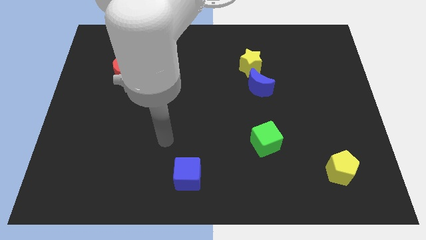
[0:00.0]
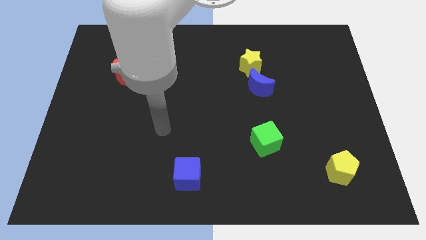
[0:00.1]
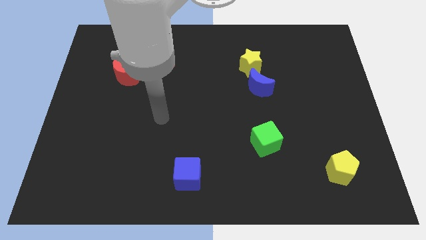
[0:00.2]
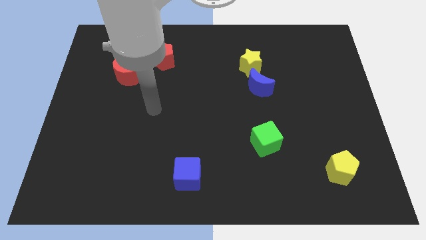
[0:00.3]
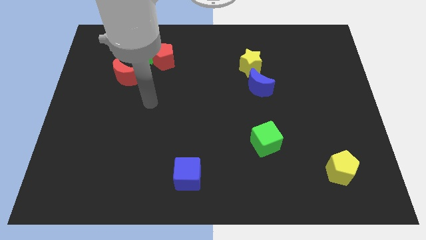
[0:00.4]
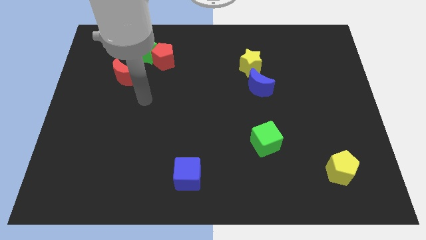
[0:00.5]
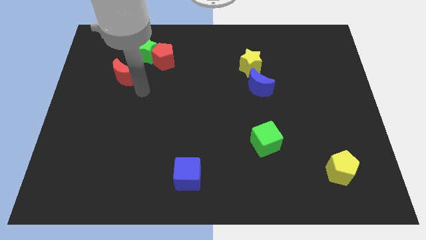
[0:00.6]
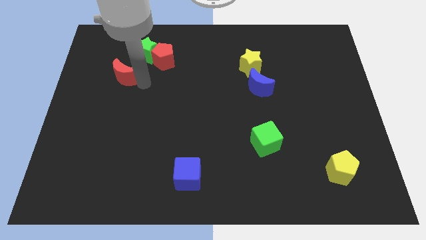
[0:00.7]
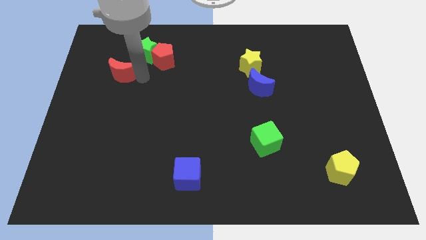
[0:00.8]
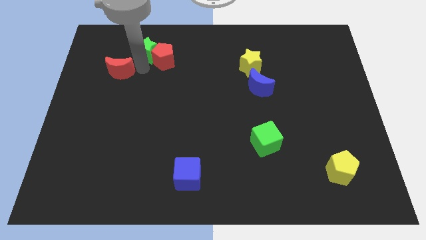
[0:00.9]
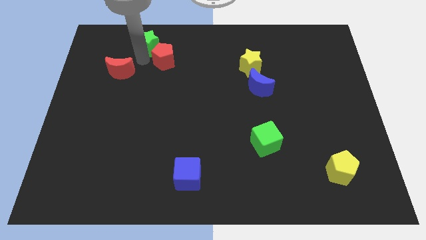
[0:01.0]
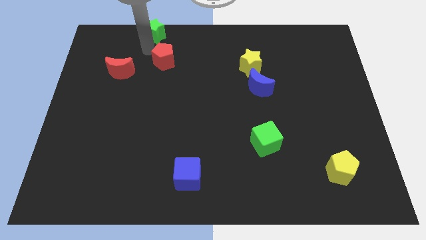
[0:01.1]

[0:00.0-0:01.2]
separate the red pentagon from the green star

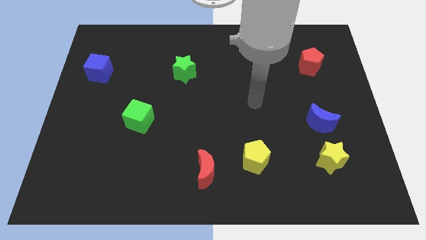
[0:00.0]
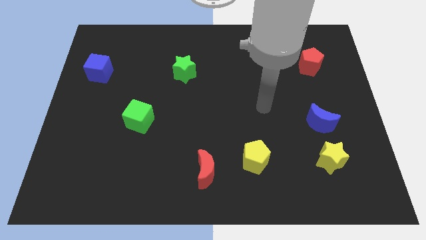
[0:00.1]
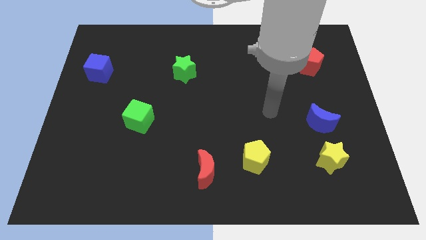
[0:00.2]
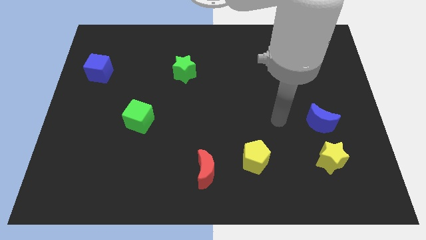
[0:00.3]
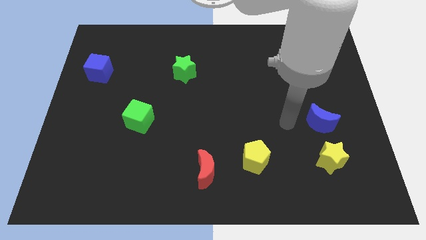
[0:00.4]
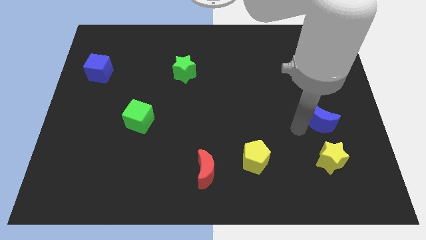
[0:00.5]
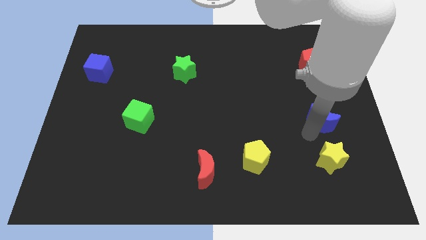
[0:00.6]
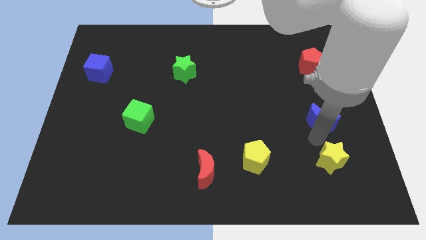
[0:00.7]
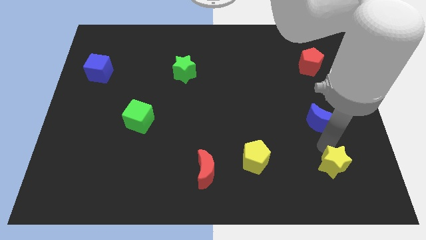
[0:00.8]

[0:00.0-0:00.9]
separate the blue moon from the yellow star

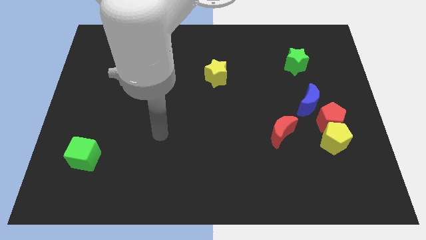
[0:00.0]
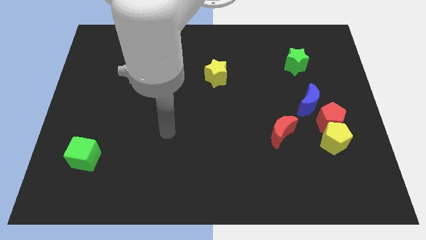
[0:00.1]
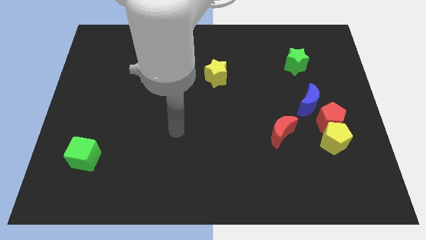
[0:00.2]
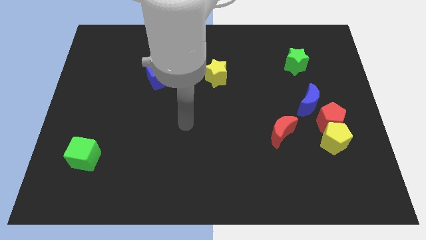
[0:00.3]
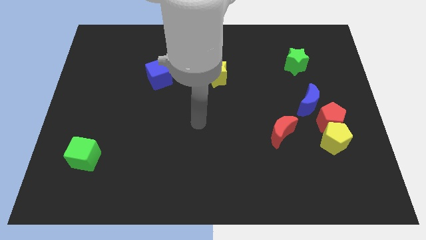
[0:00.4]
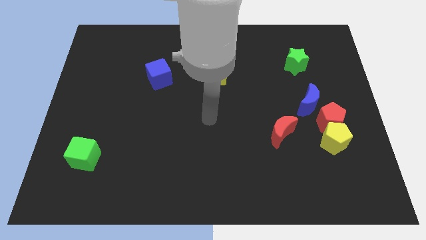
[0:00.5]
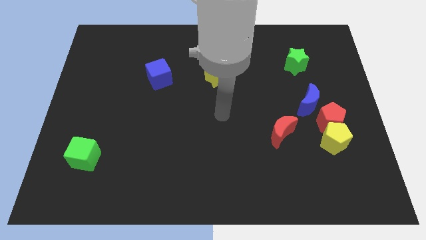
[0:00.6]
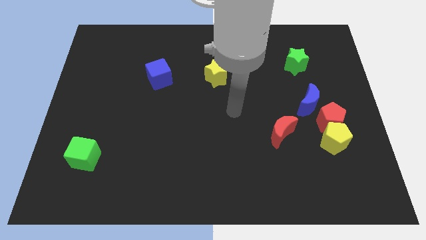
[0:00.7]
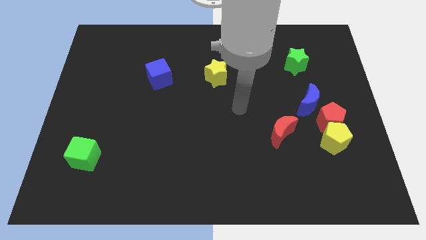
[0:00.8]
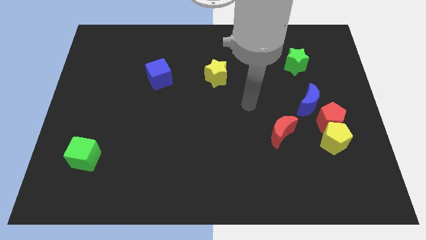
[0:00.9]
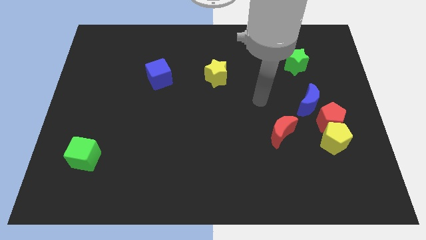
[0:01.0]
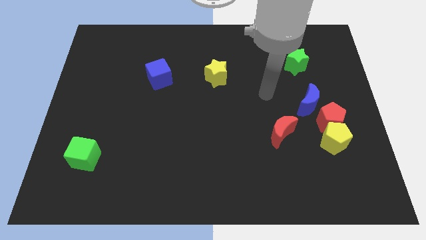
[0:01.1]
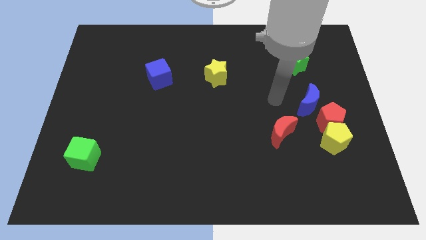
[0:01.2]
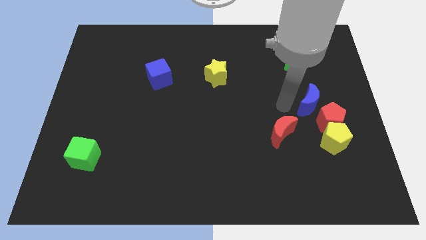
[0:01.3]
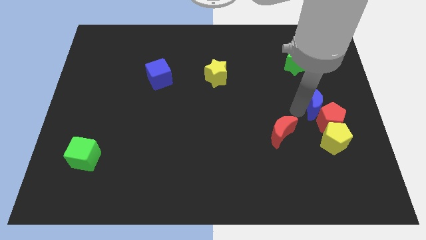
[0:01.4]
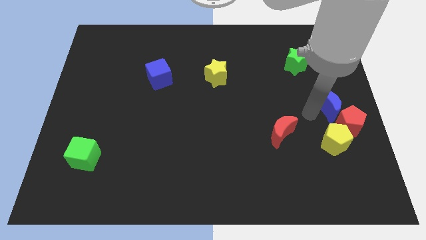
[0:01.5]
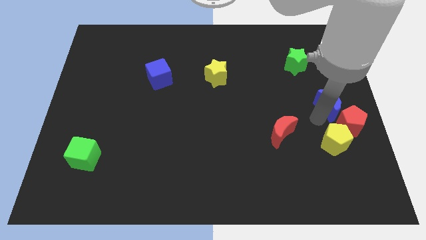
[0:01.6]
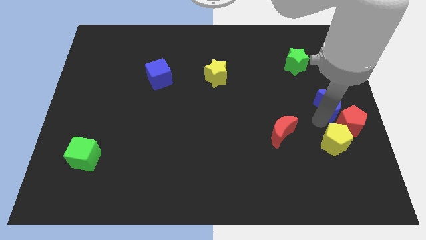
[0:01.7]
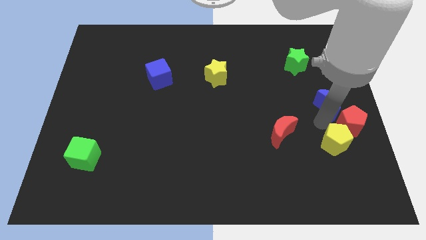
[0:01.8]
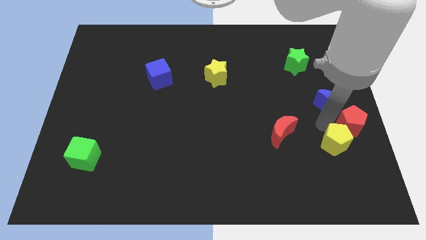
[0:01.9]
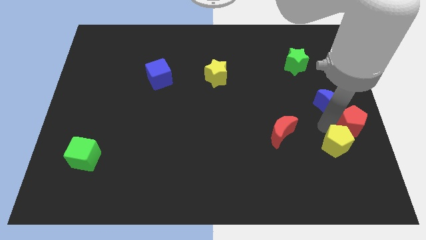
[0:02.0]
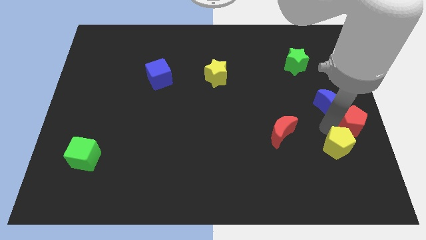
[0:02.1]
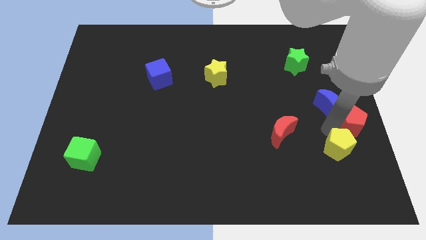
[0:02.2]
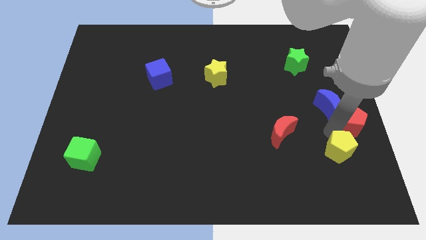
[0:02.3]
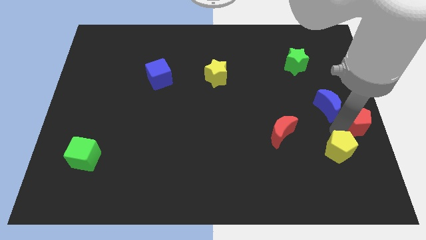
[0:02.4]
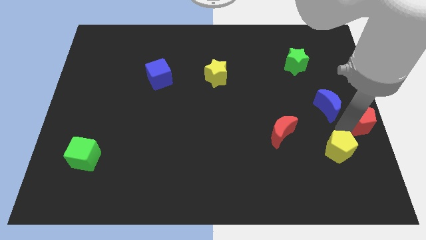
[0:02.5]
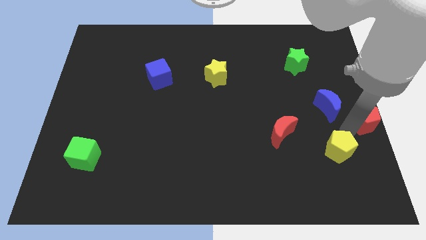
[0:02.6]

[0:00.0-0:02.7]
move the yellow pentagon away from the red pentagon

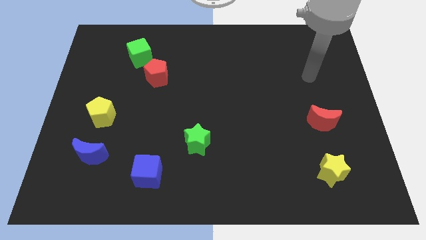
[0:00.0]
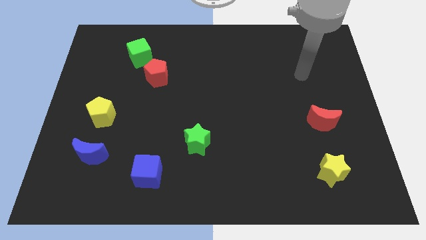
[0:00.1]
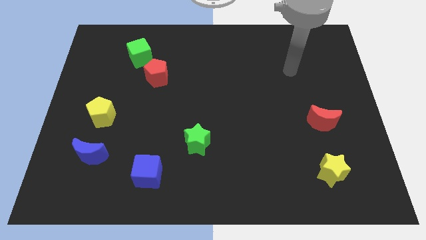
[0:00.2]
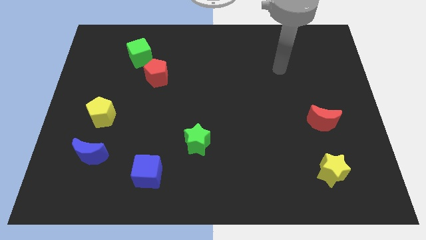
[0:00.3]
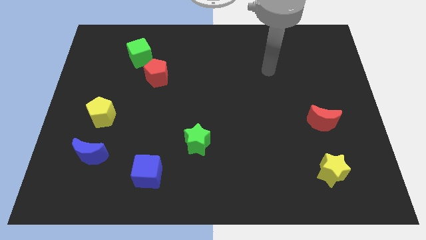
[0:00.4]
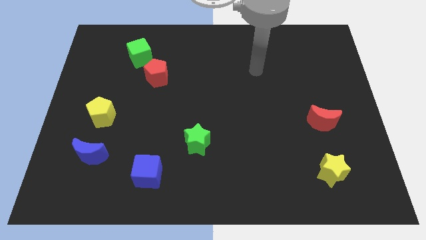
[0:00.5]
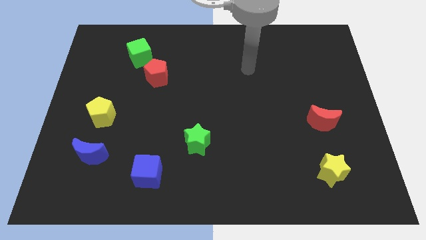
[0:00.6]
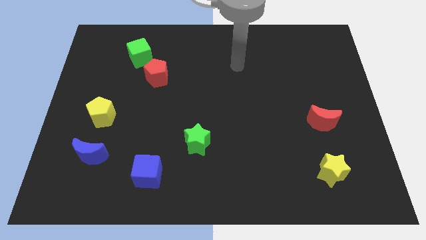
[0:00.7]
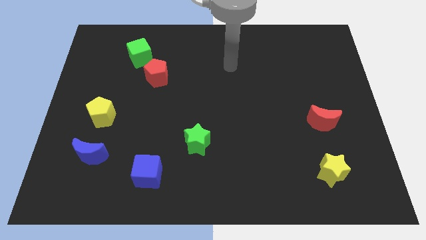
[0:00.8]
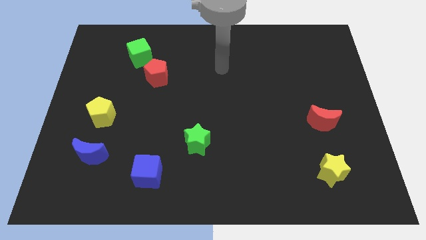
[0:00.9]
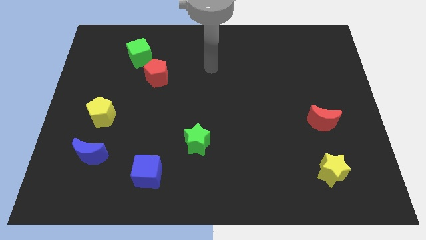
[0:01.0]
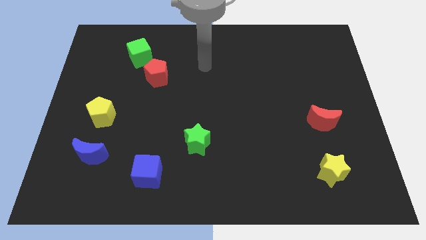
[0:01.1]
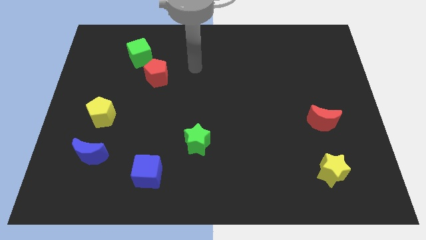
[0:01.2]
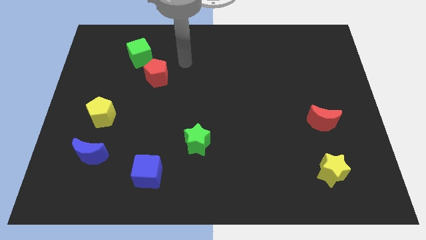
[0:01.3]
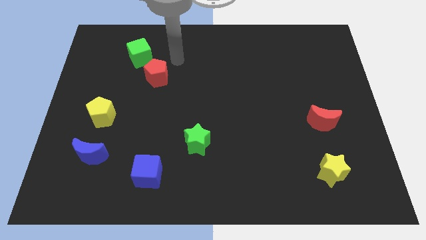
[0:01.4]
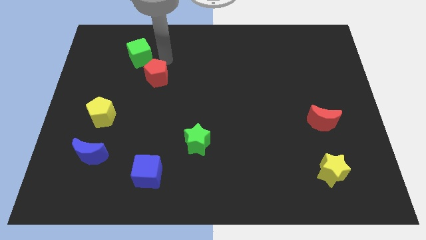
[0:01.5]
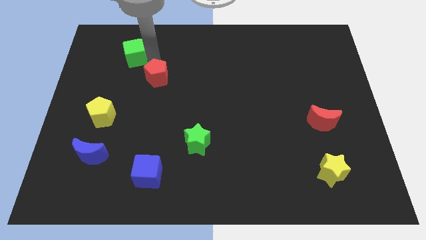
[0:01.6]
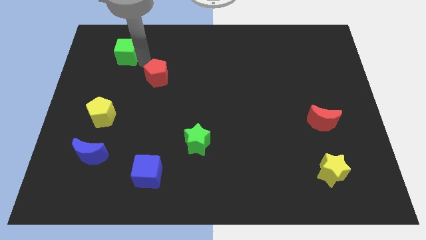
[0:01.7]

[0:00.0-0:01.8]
move the red pentagon away from the green cube

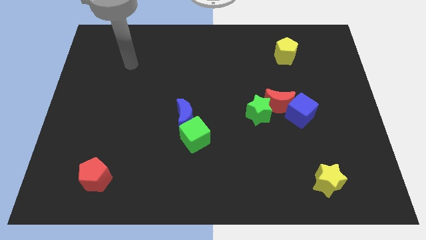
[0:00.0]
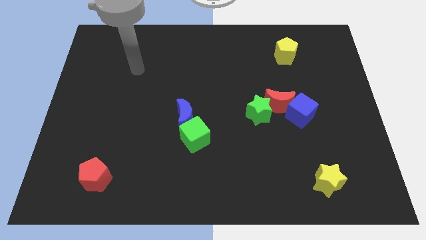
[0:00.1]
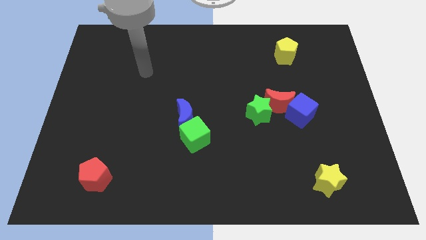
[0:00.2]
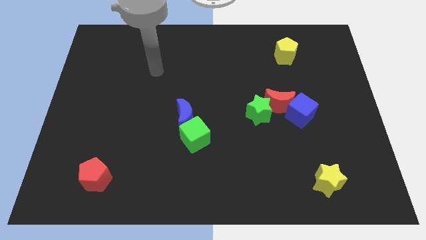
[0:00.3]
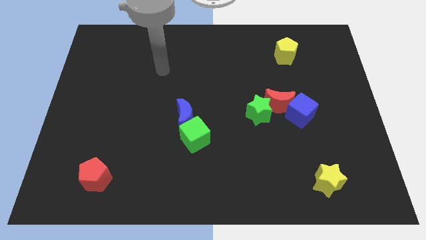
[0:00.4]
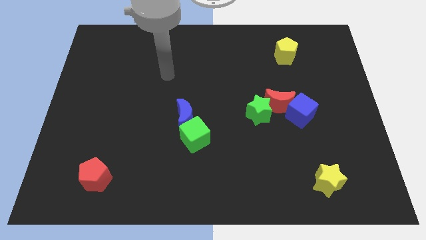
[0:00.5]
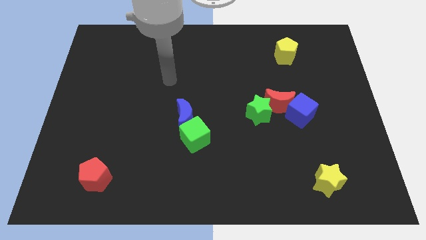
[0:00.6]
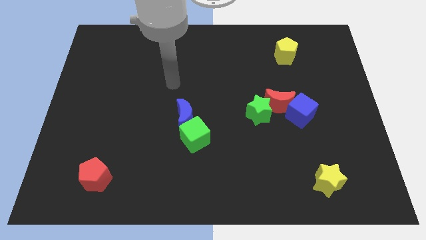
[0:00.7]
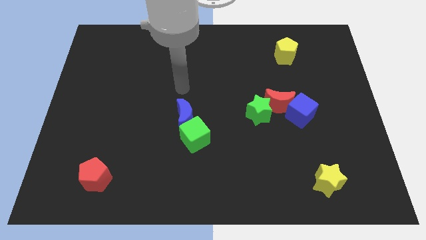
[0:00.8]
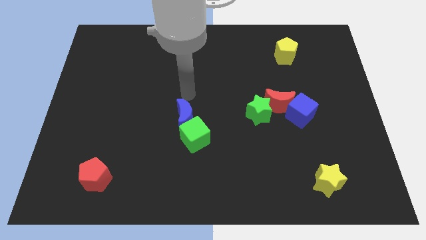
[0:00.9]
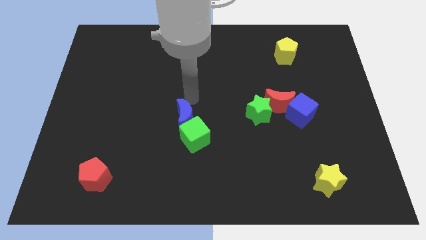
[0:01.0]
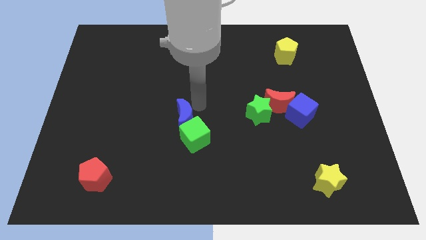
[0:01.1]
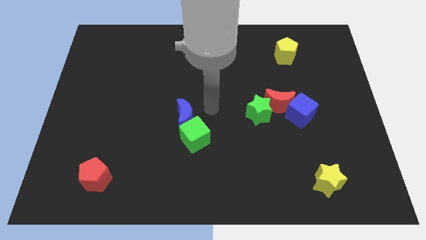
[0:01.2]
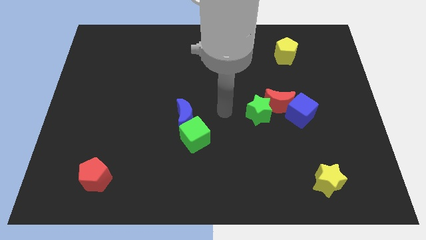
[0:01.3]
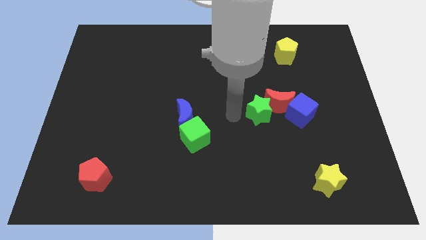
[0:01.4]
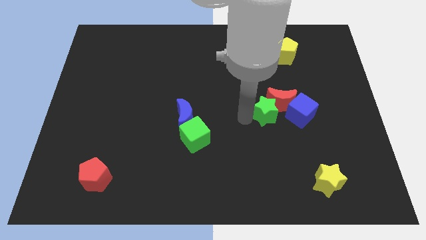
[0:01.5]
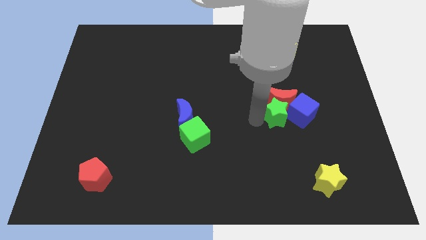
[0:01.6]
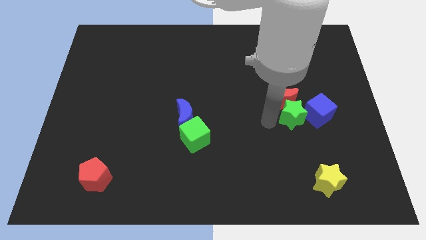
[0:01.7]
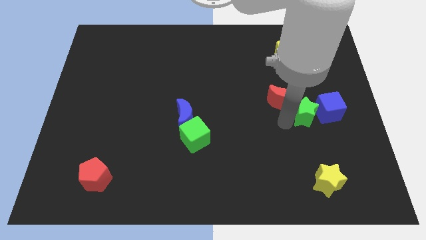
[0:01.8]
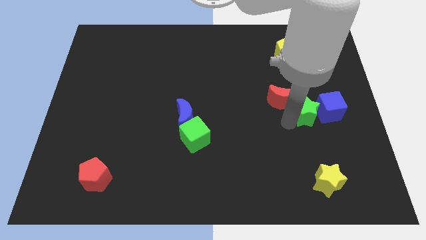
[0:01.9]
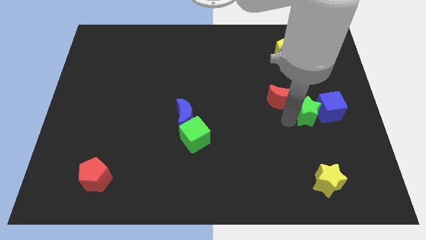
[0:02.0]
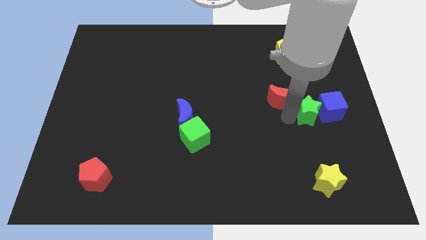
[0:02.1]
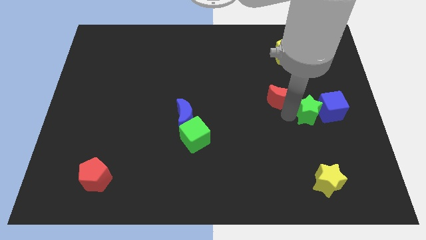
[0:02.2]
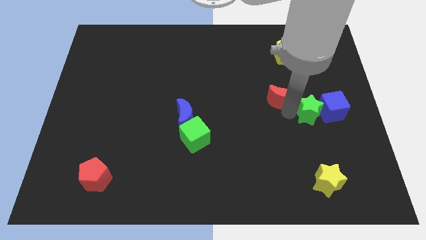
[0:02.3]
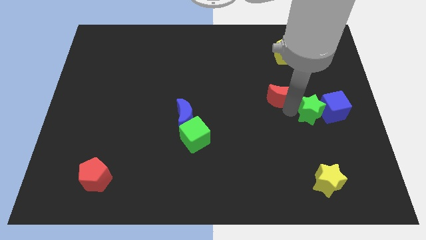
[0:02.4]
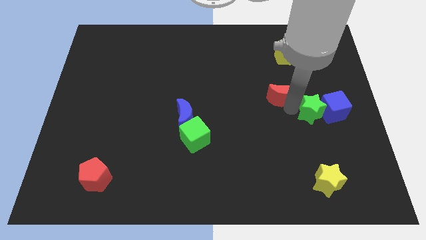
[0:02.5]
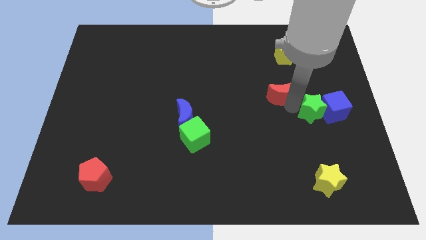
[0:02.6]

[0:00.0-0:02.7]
separate the red moon from the blue cube and green star
